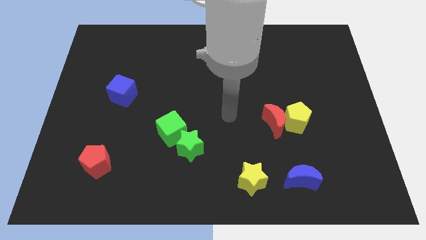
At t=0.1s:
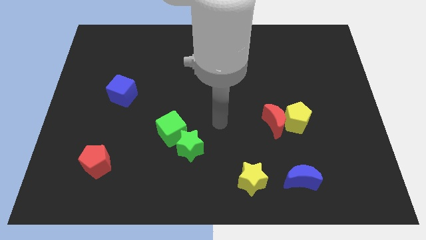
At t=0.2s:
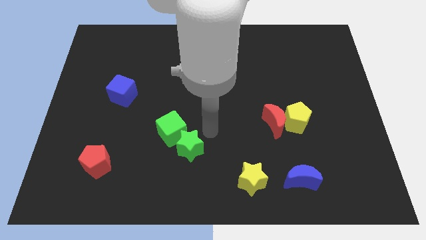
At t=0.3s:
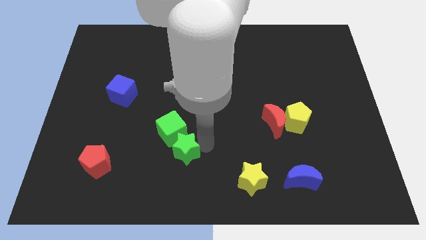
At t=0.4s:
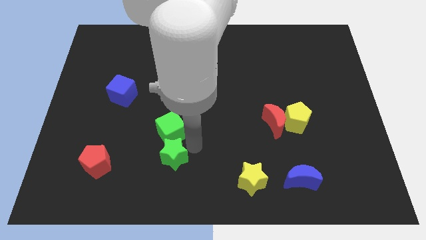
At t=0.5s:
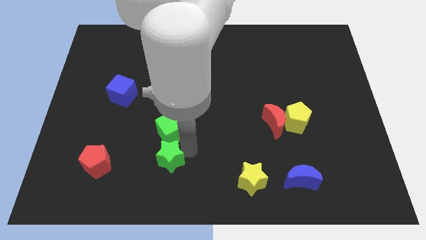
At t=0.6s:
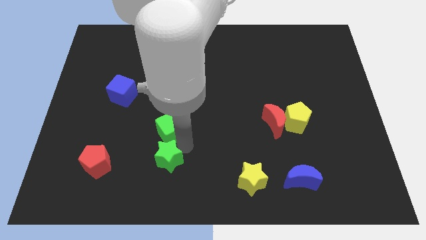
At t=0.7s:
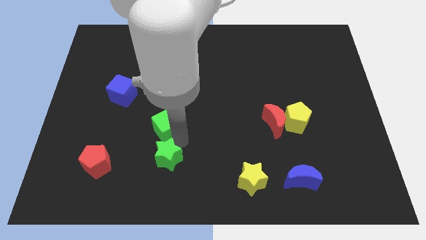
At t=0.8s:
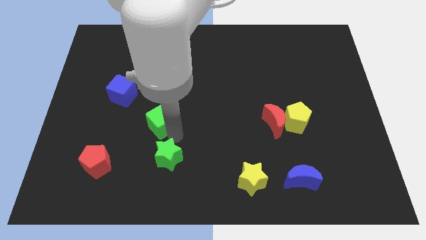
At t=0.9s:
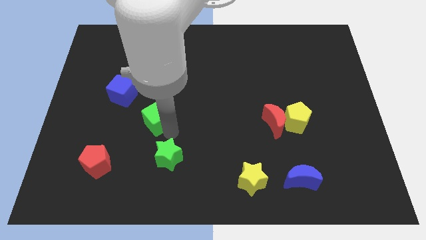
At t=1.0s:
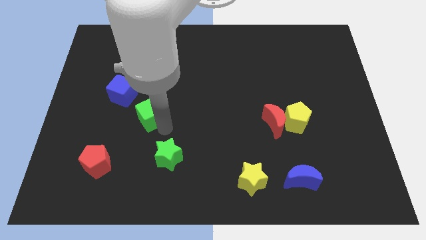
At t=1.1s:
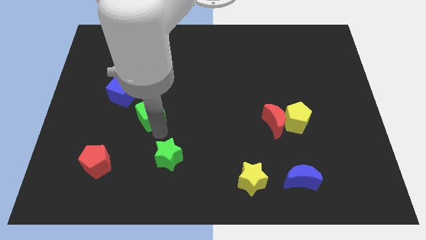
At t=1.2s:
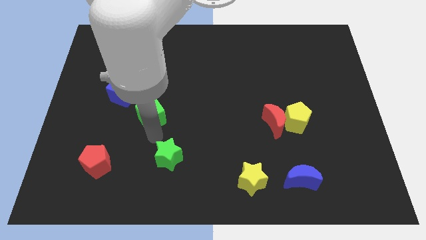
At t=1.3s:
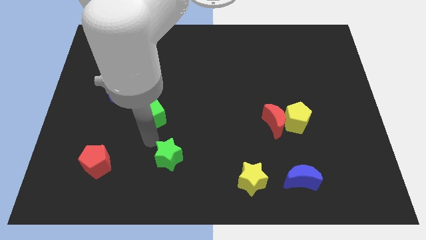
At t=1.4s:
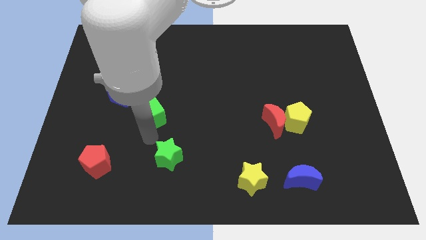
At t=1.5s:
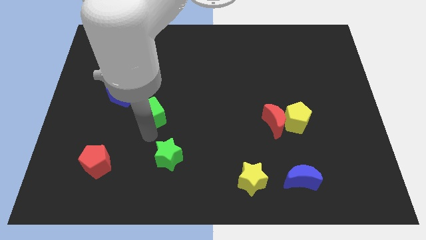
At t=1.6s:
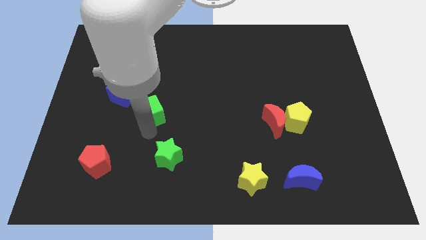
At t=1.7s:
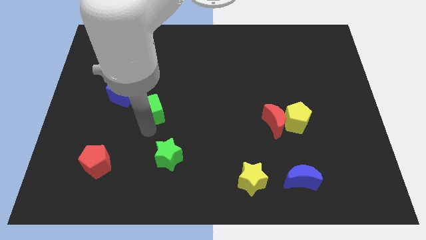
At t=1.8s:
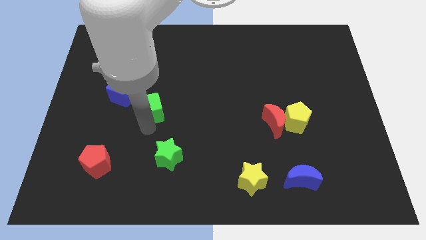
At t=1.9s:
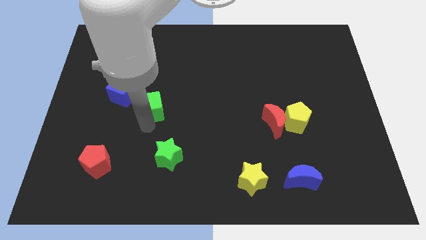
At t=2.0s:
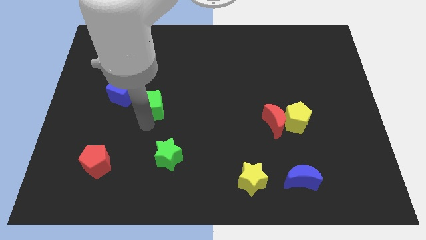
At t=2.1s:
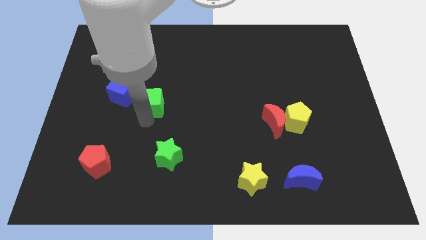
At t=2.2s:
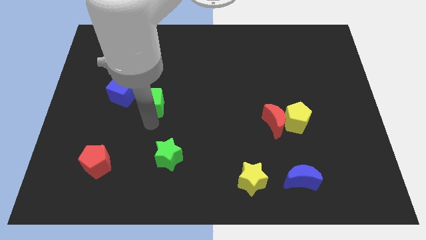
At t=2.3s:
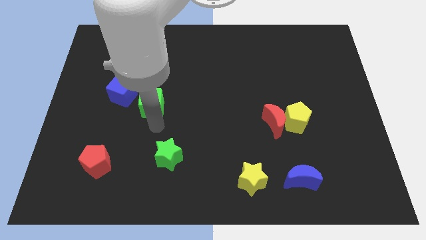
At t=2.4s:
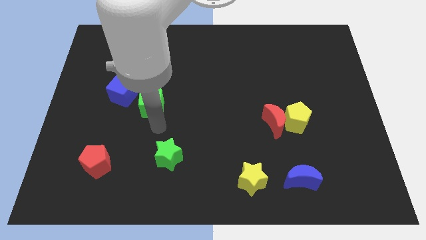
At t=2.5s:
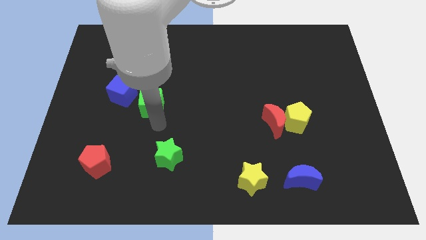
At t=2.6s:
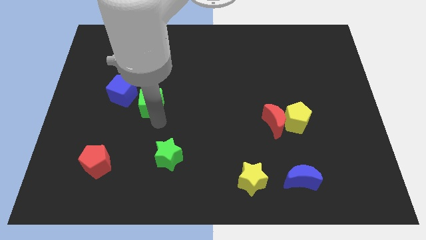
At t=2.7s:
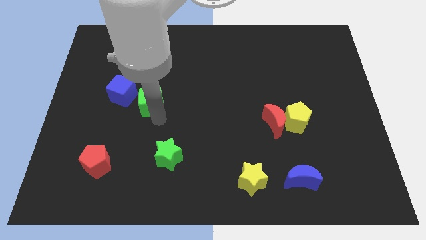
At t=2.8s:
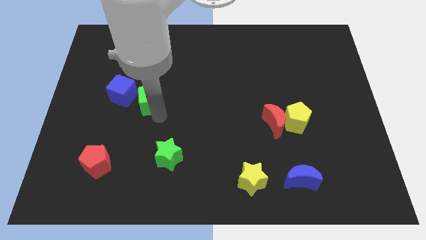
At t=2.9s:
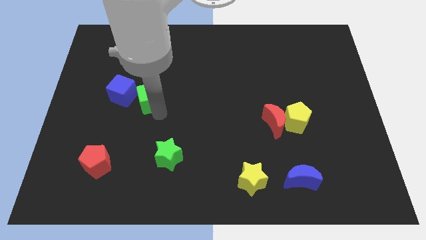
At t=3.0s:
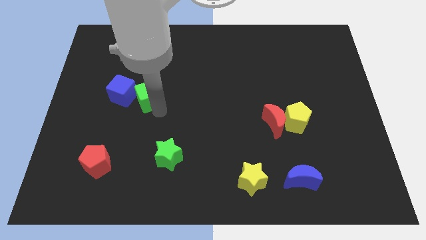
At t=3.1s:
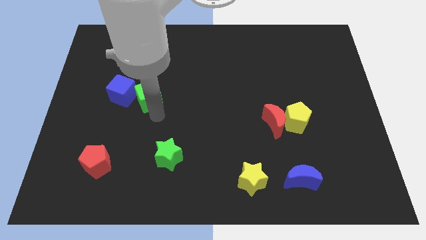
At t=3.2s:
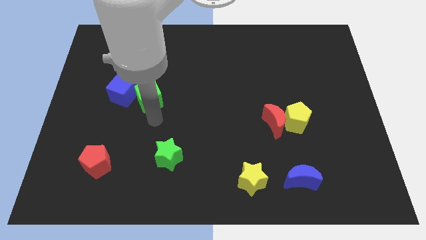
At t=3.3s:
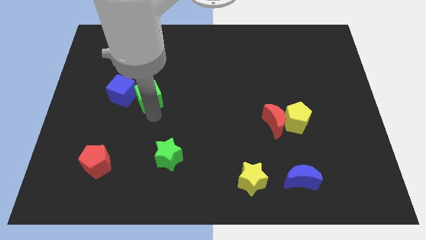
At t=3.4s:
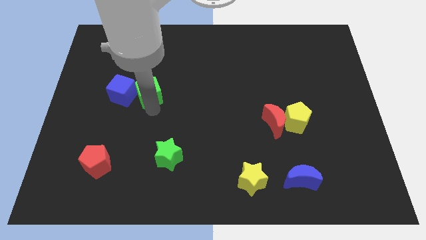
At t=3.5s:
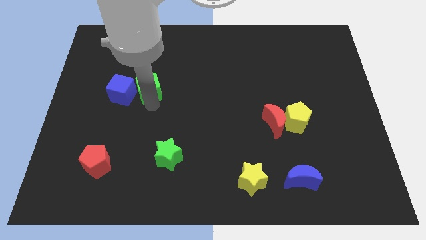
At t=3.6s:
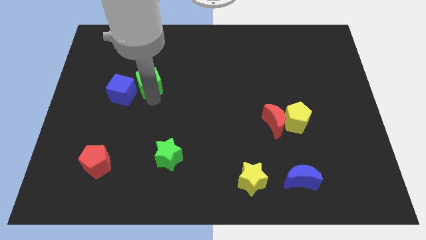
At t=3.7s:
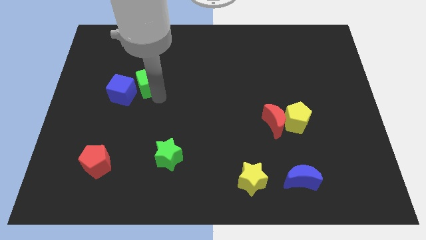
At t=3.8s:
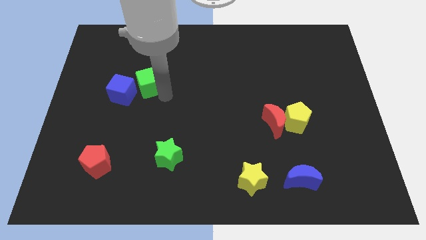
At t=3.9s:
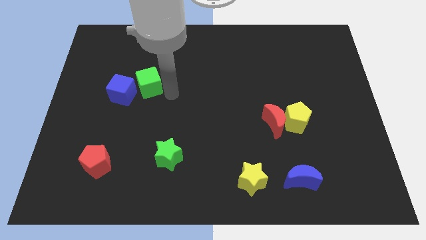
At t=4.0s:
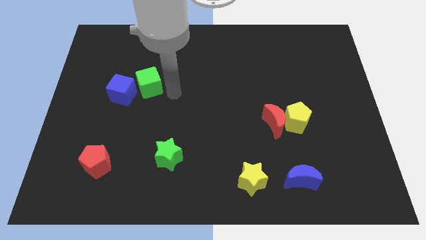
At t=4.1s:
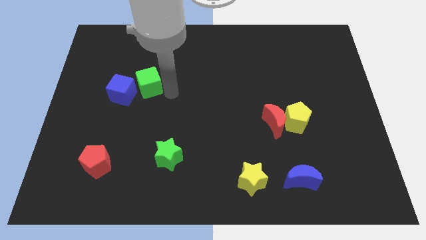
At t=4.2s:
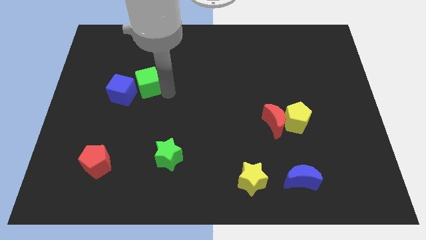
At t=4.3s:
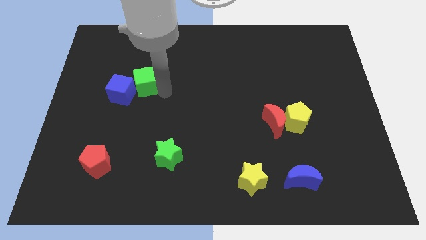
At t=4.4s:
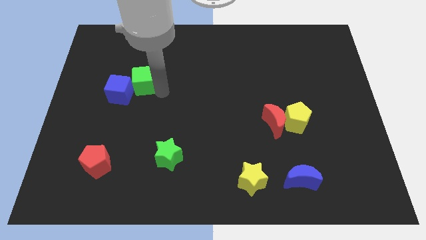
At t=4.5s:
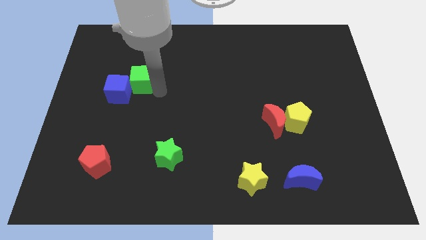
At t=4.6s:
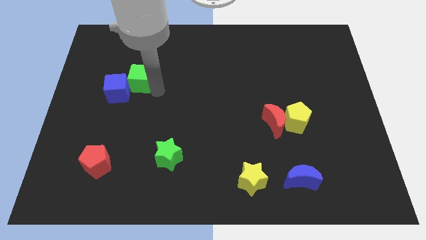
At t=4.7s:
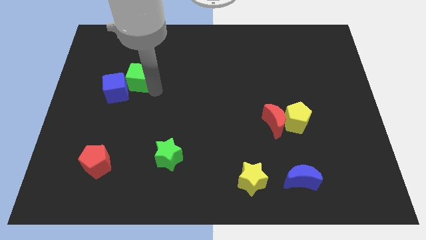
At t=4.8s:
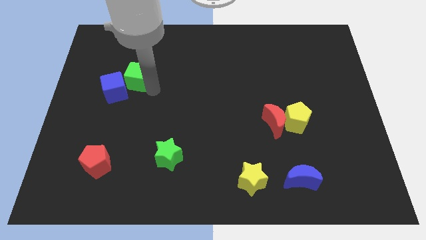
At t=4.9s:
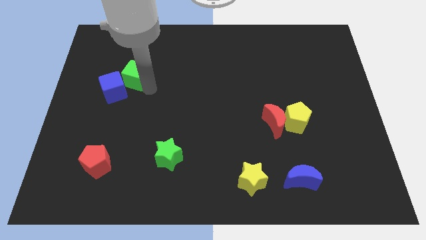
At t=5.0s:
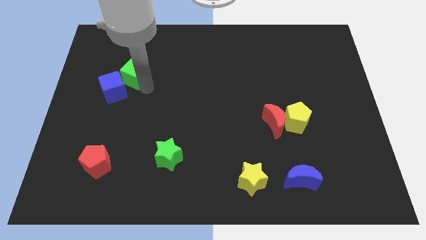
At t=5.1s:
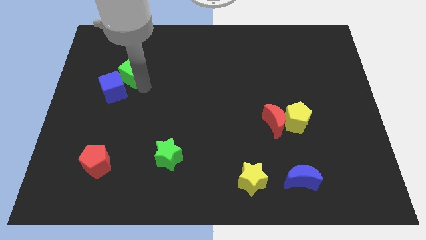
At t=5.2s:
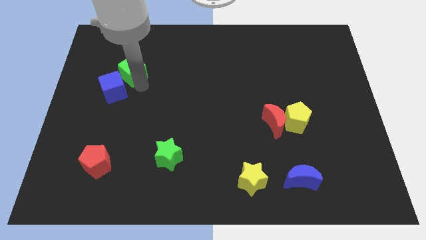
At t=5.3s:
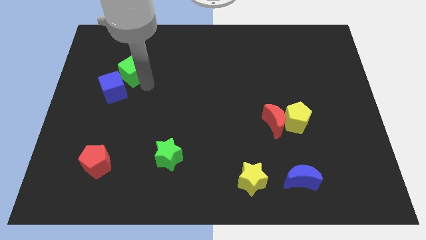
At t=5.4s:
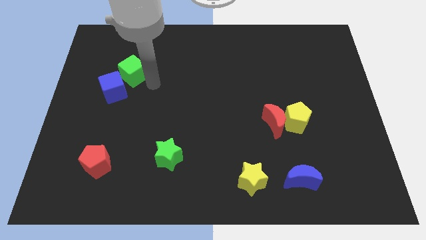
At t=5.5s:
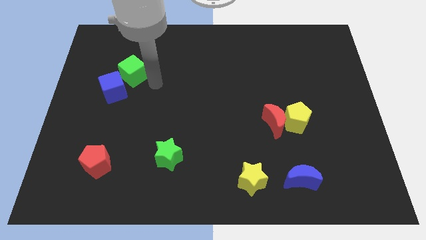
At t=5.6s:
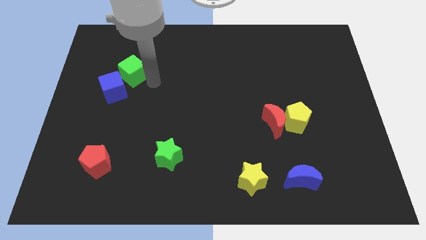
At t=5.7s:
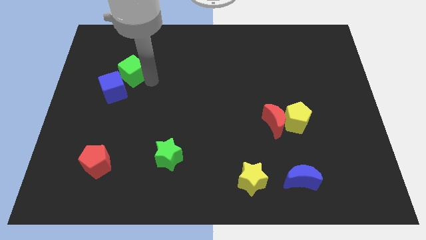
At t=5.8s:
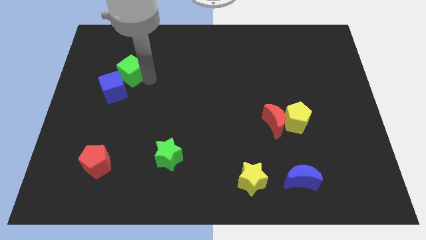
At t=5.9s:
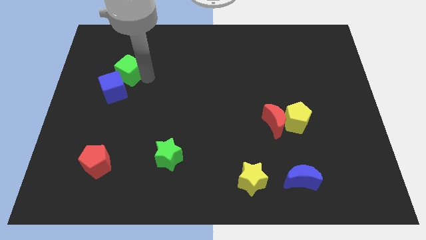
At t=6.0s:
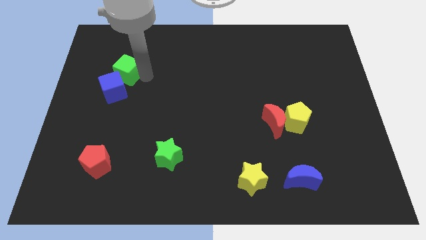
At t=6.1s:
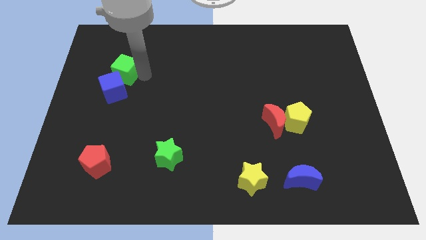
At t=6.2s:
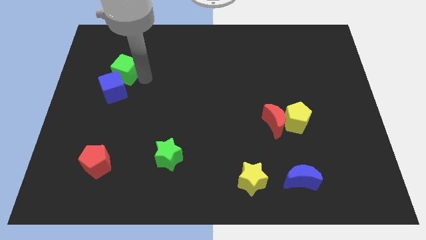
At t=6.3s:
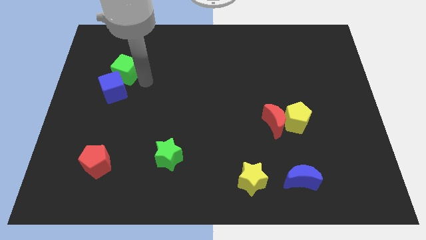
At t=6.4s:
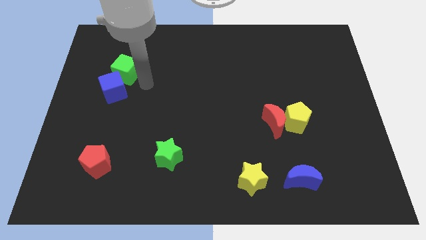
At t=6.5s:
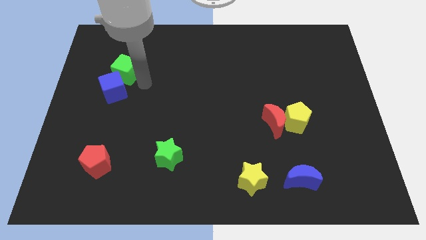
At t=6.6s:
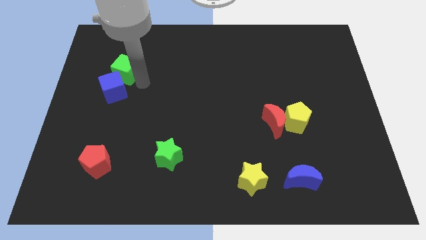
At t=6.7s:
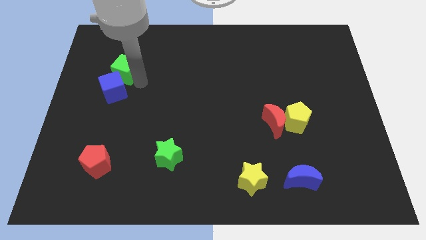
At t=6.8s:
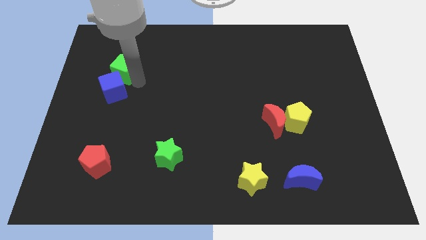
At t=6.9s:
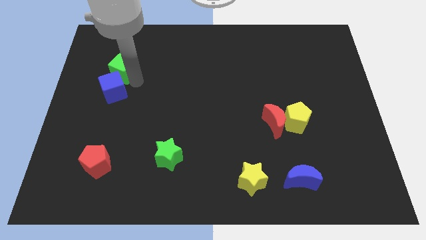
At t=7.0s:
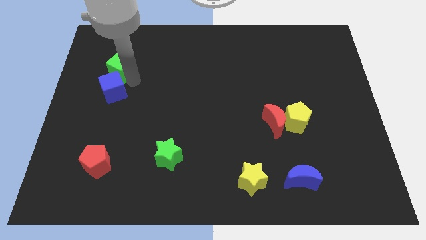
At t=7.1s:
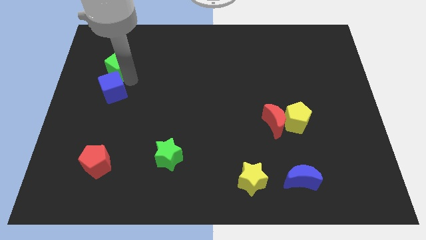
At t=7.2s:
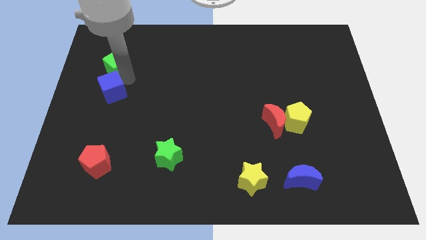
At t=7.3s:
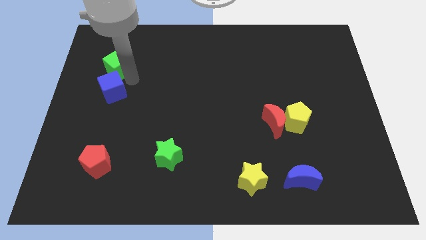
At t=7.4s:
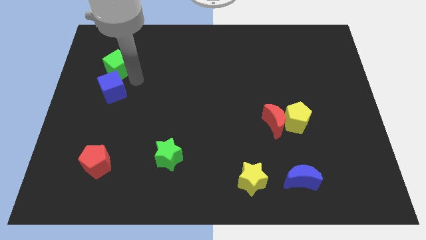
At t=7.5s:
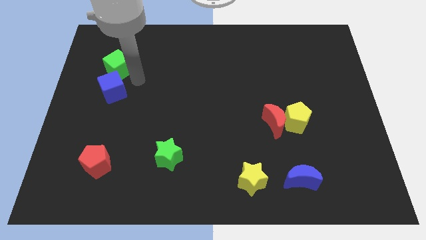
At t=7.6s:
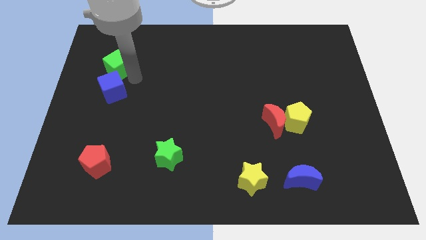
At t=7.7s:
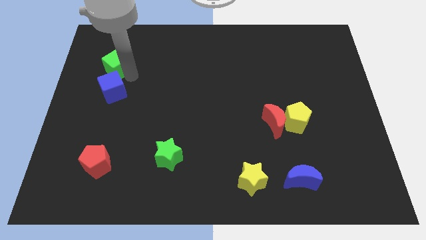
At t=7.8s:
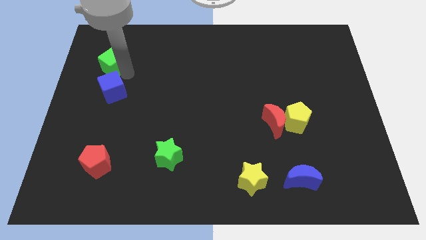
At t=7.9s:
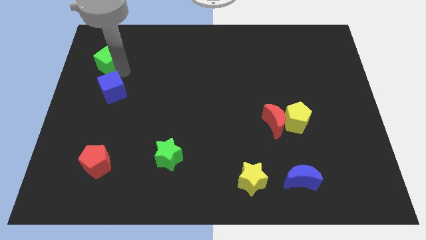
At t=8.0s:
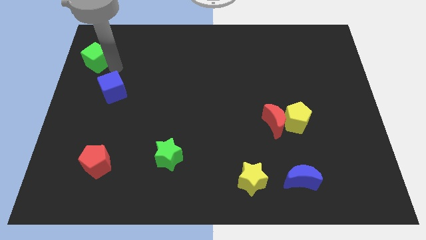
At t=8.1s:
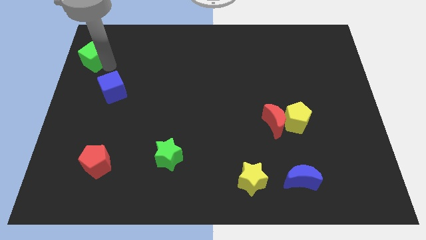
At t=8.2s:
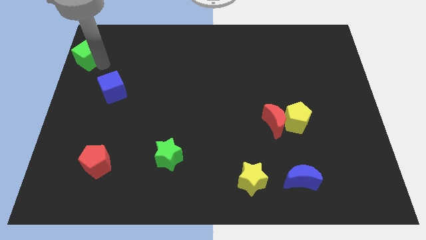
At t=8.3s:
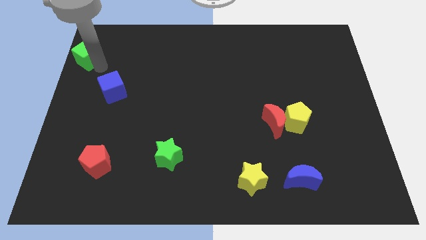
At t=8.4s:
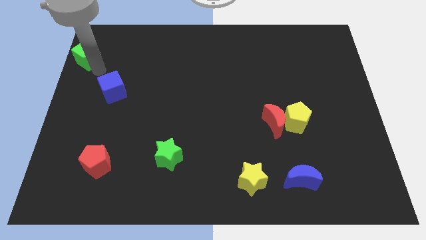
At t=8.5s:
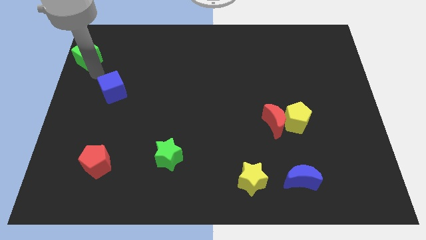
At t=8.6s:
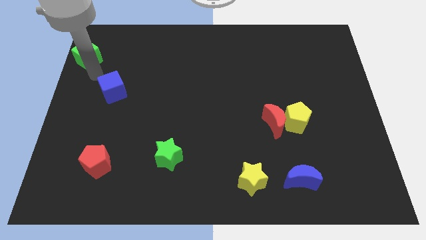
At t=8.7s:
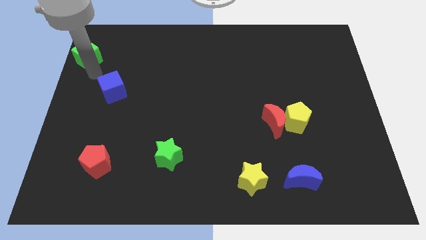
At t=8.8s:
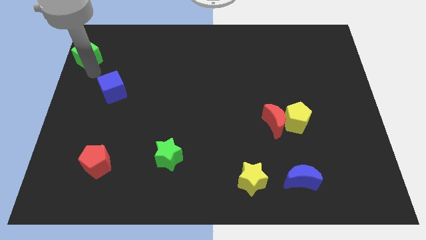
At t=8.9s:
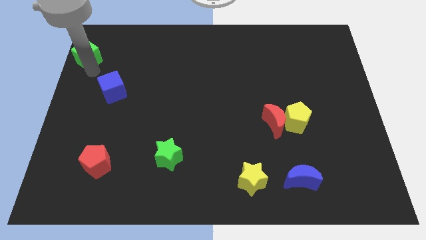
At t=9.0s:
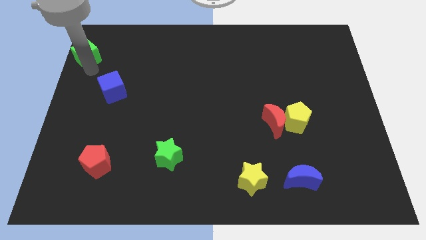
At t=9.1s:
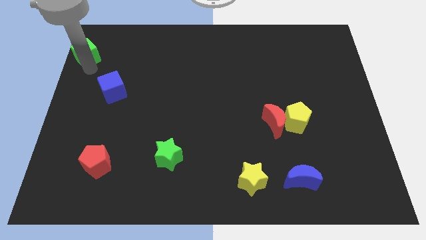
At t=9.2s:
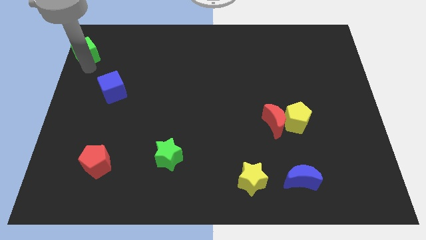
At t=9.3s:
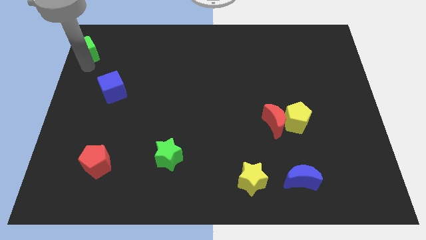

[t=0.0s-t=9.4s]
push the green cube to the upper left corner
